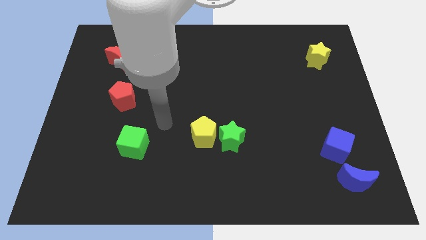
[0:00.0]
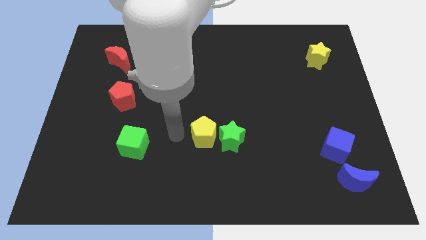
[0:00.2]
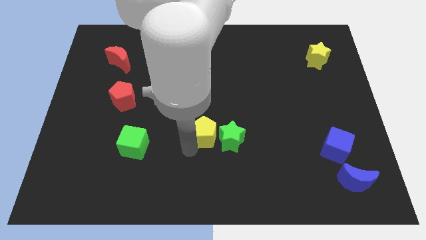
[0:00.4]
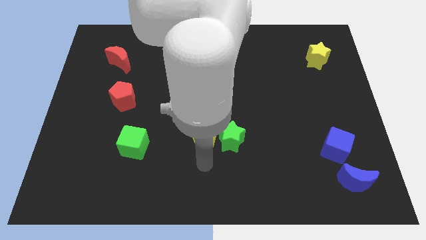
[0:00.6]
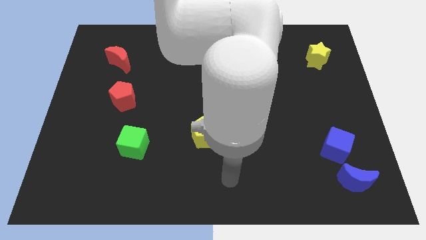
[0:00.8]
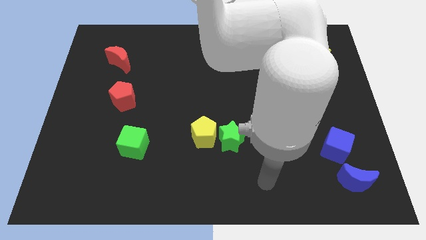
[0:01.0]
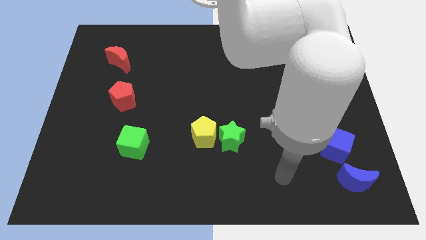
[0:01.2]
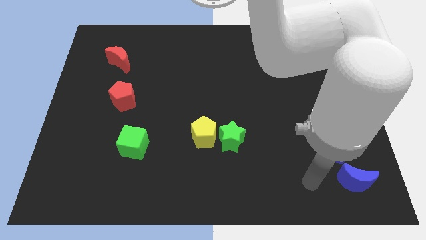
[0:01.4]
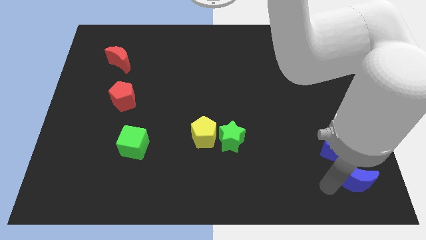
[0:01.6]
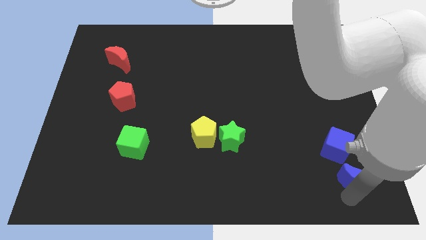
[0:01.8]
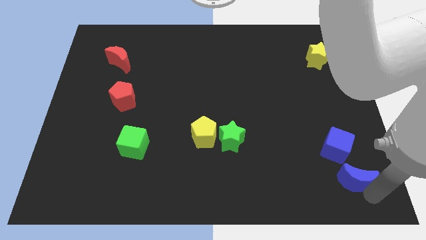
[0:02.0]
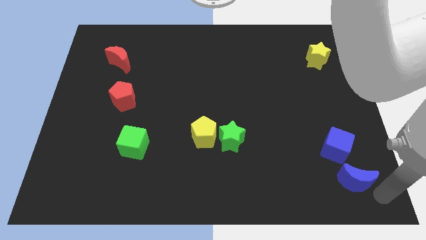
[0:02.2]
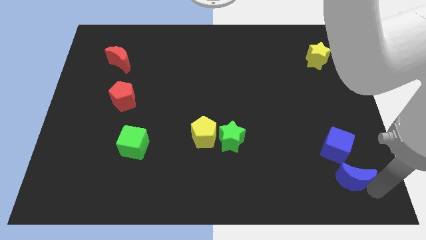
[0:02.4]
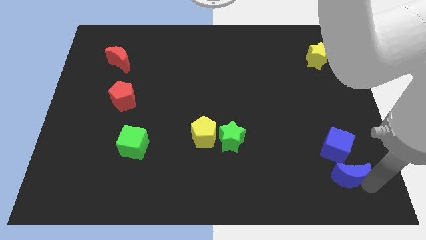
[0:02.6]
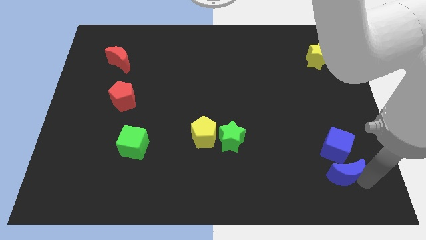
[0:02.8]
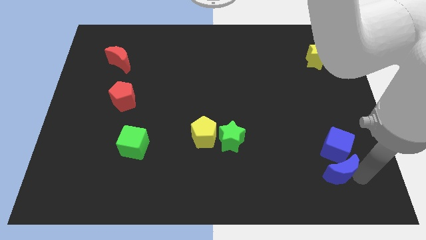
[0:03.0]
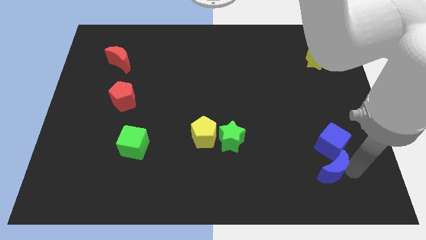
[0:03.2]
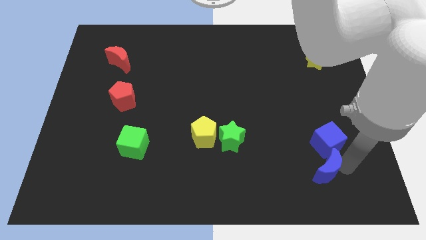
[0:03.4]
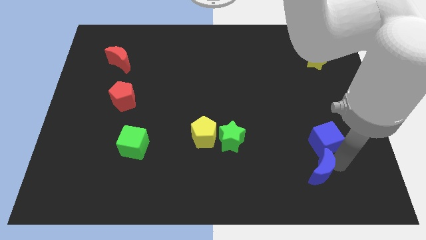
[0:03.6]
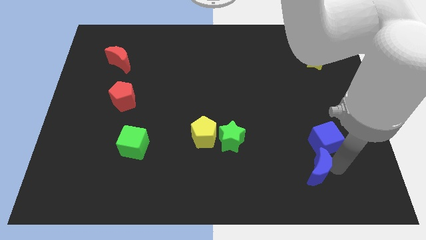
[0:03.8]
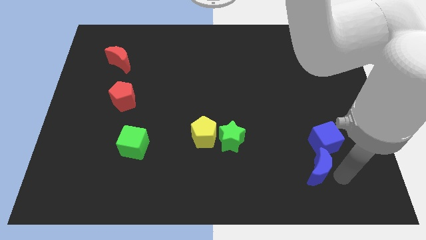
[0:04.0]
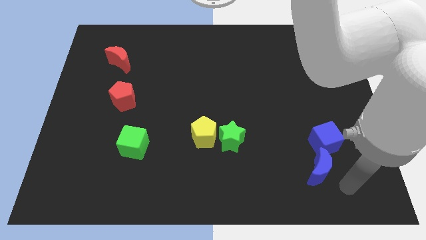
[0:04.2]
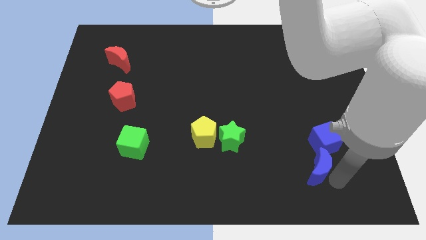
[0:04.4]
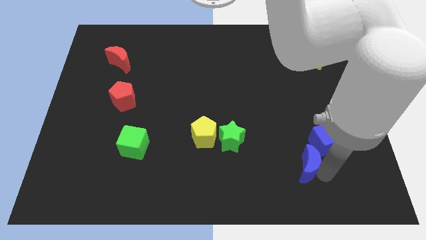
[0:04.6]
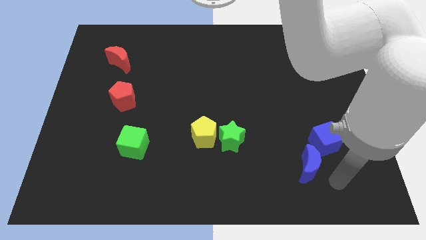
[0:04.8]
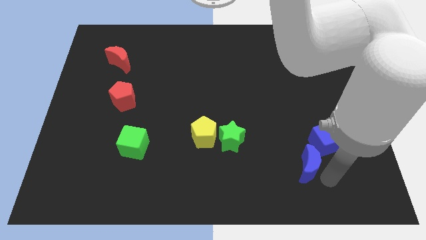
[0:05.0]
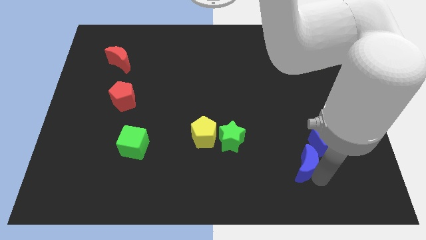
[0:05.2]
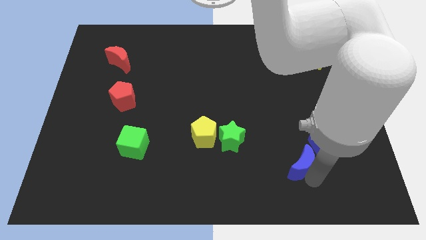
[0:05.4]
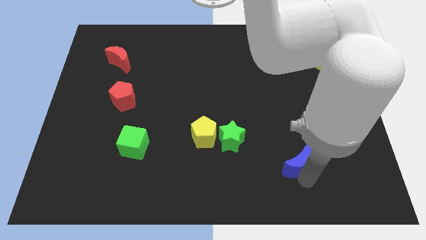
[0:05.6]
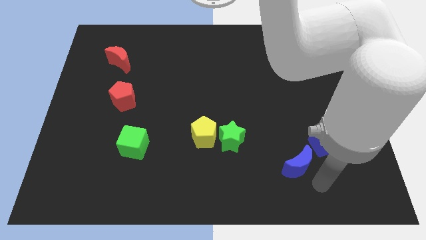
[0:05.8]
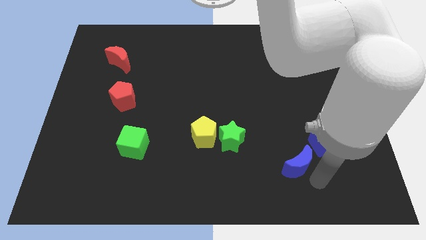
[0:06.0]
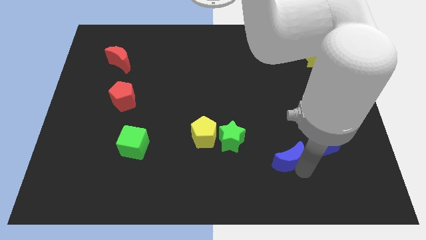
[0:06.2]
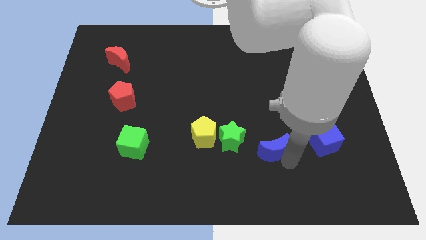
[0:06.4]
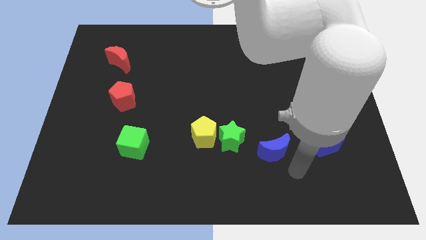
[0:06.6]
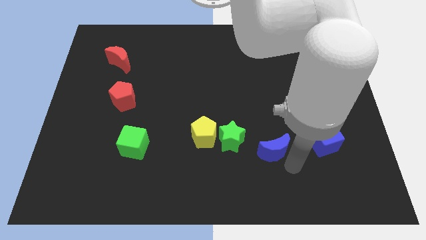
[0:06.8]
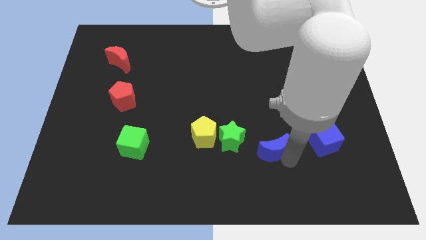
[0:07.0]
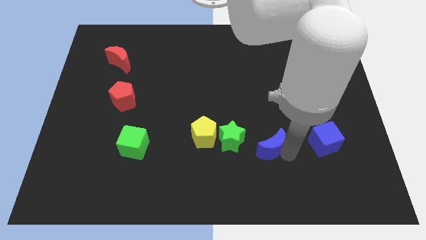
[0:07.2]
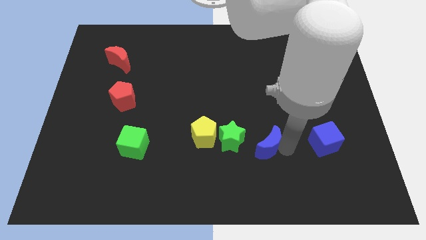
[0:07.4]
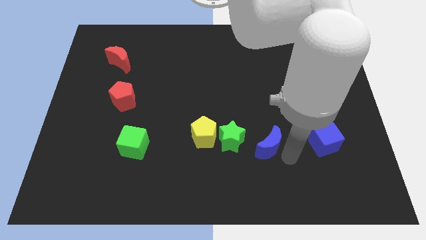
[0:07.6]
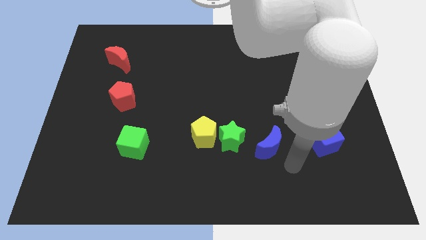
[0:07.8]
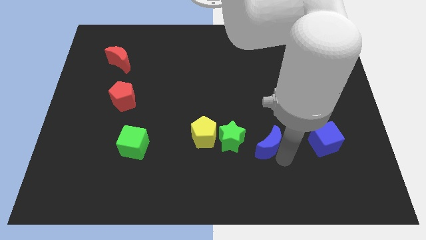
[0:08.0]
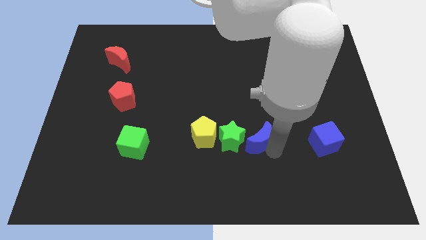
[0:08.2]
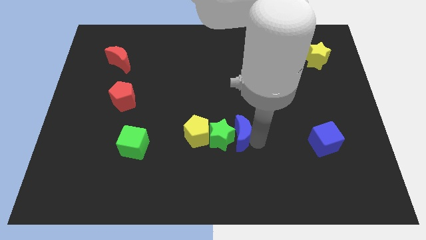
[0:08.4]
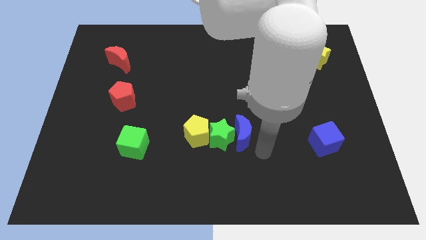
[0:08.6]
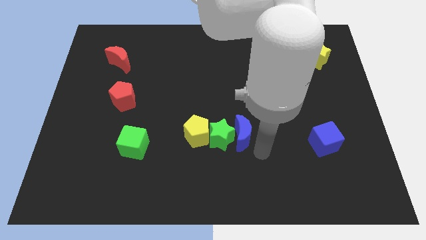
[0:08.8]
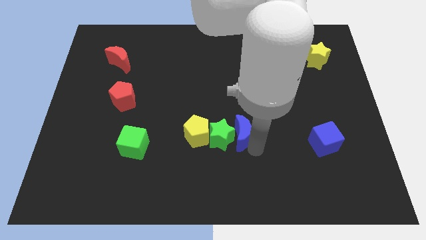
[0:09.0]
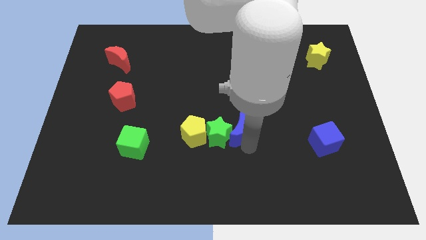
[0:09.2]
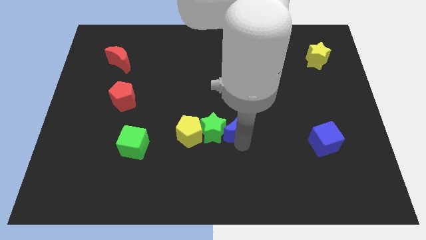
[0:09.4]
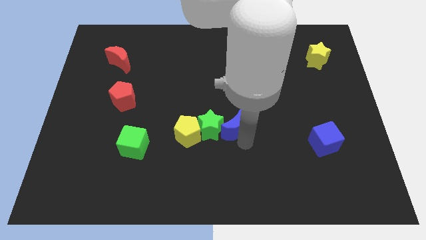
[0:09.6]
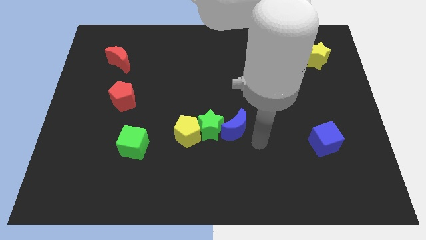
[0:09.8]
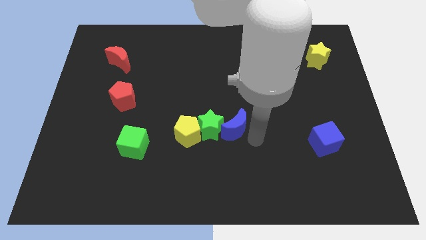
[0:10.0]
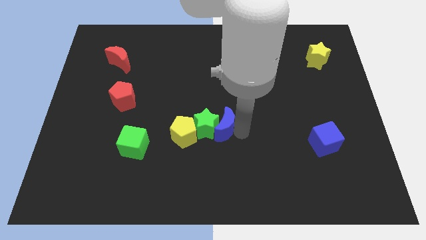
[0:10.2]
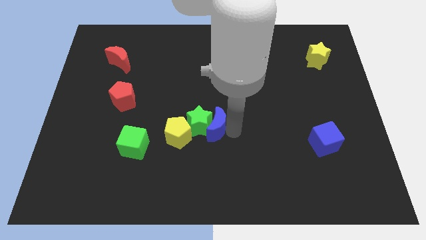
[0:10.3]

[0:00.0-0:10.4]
put the blue moon to the top right side of the yellow pentagon
